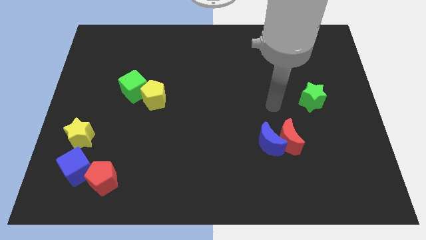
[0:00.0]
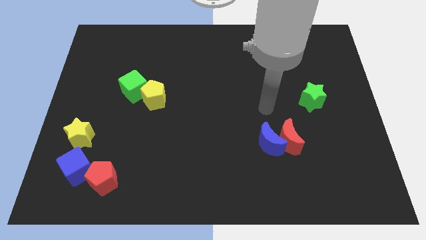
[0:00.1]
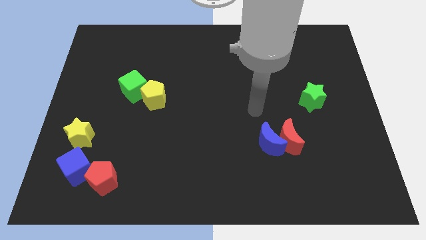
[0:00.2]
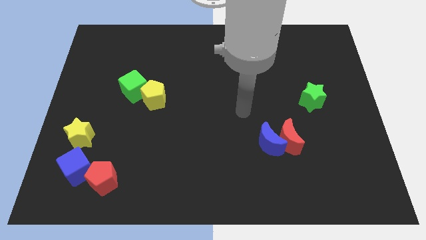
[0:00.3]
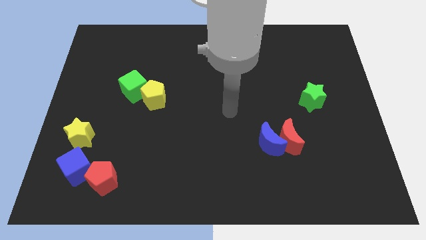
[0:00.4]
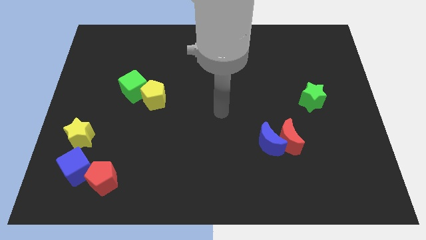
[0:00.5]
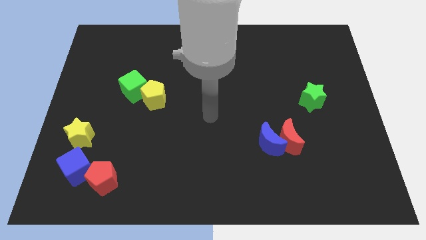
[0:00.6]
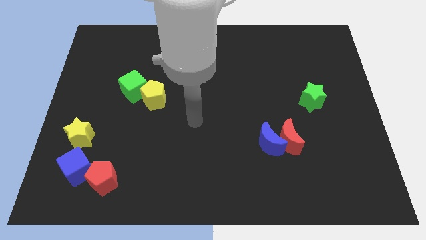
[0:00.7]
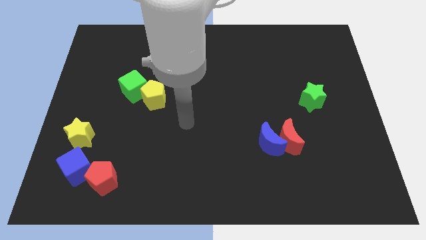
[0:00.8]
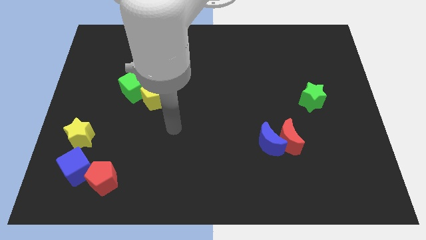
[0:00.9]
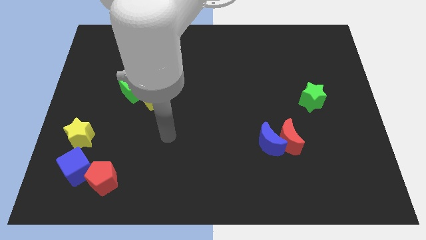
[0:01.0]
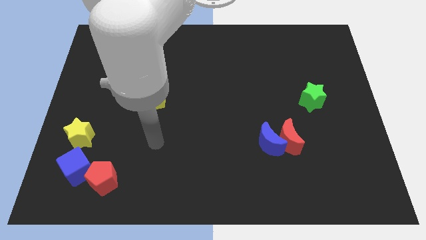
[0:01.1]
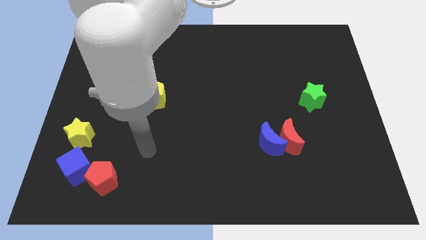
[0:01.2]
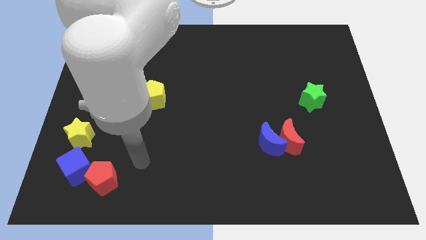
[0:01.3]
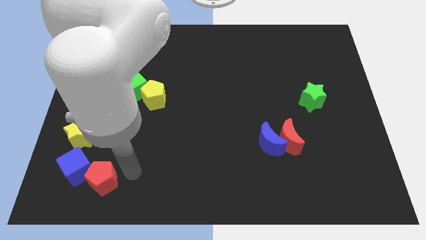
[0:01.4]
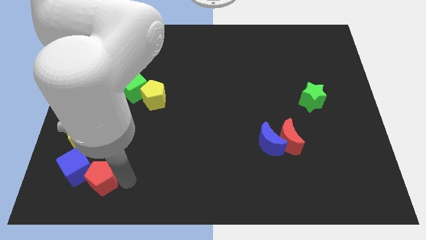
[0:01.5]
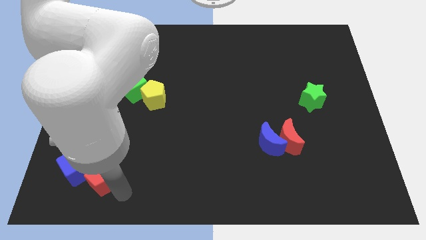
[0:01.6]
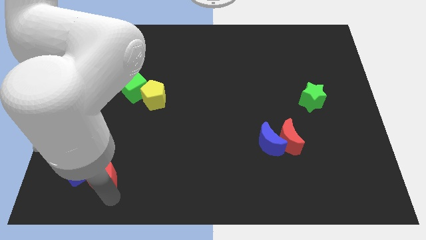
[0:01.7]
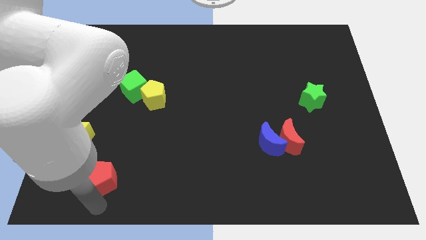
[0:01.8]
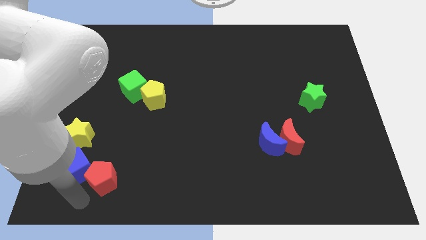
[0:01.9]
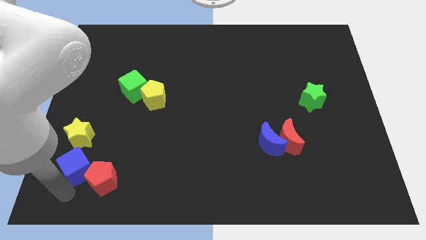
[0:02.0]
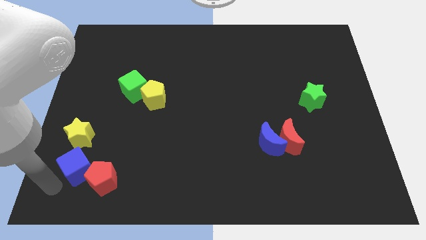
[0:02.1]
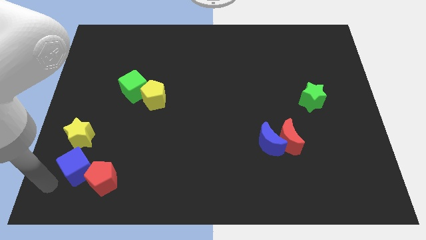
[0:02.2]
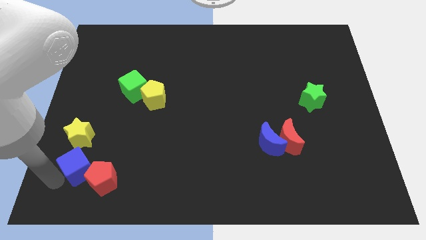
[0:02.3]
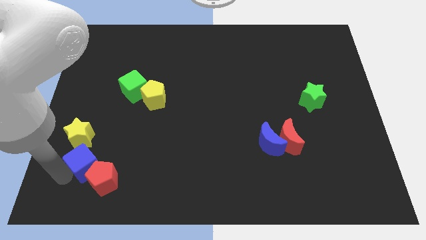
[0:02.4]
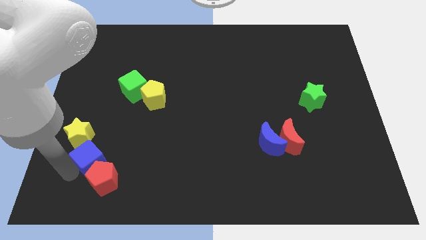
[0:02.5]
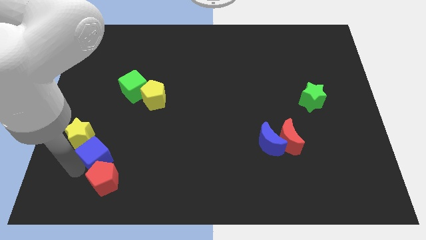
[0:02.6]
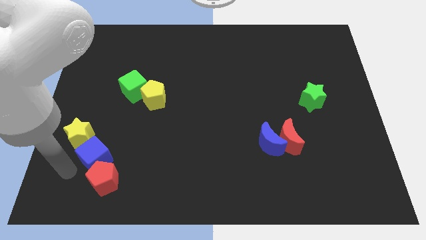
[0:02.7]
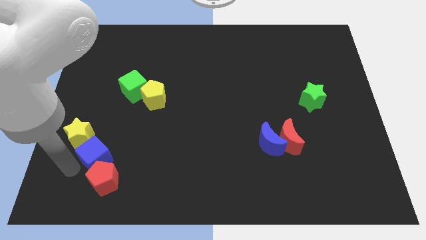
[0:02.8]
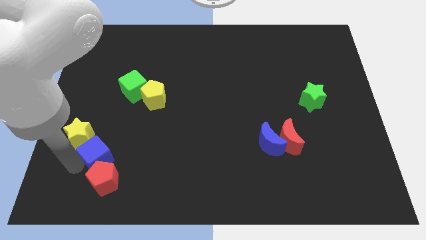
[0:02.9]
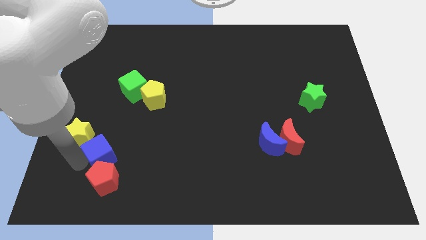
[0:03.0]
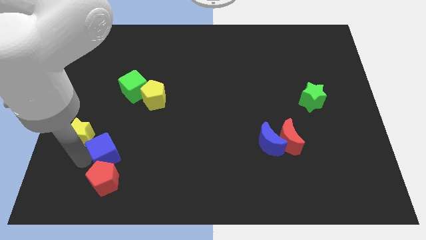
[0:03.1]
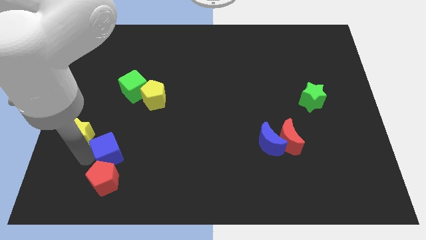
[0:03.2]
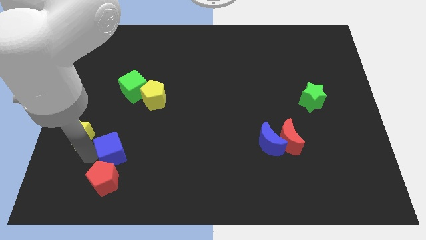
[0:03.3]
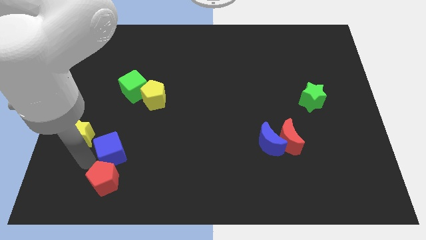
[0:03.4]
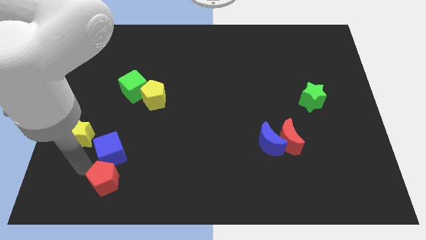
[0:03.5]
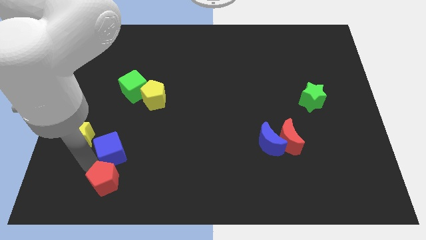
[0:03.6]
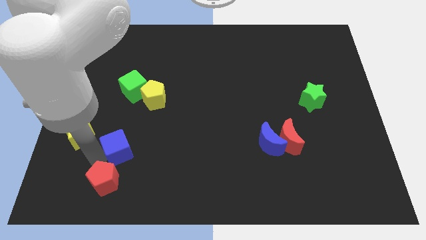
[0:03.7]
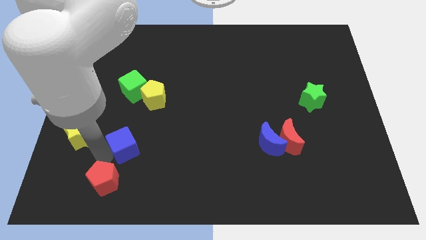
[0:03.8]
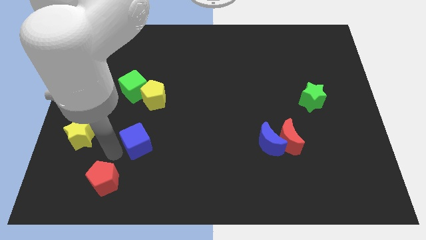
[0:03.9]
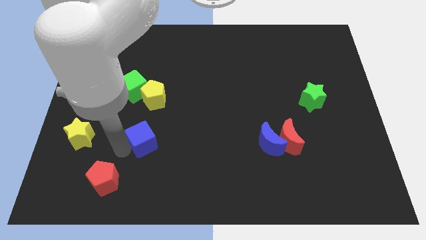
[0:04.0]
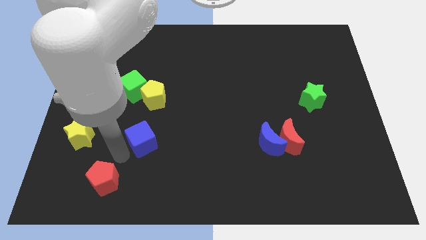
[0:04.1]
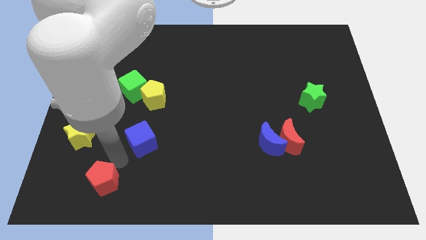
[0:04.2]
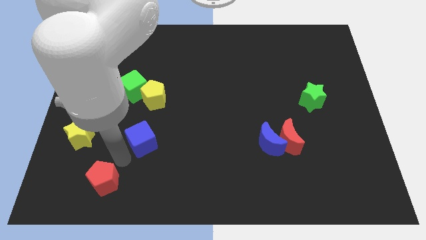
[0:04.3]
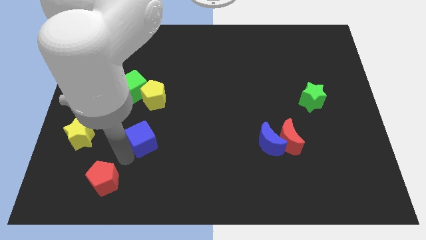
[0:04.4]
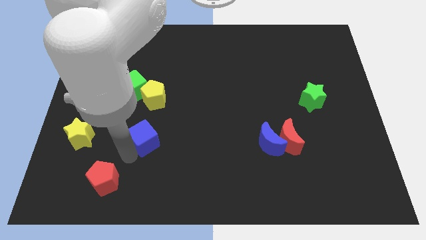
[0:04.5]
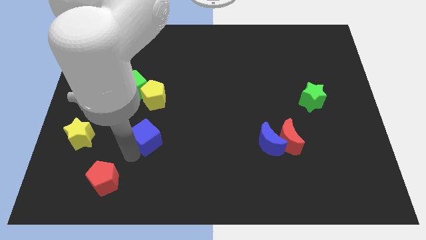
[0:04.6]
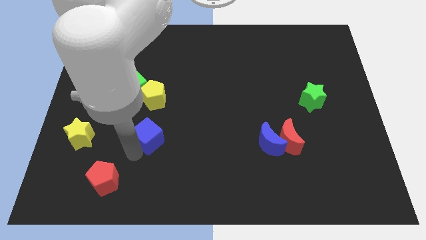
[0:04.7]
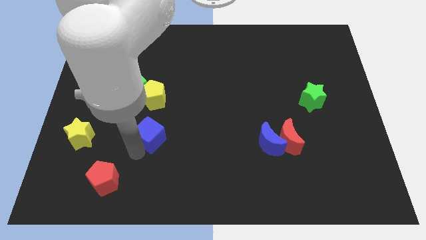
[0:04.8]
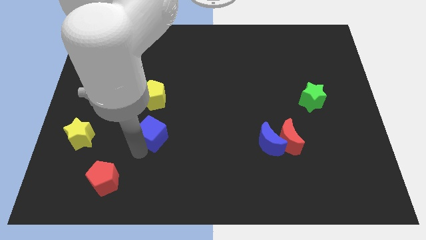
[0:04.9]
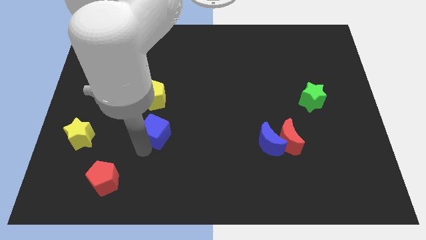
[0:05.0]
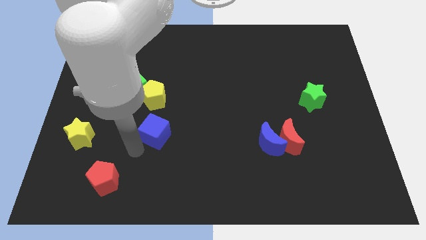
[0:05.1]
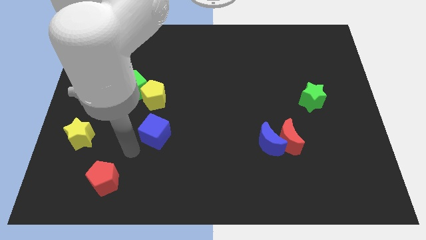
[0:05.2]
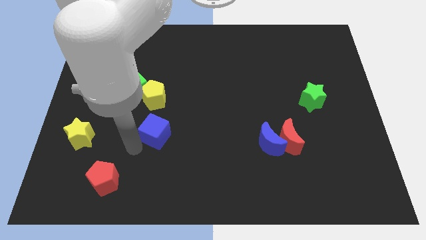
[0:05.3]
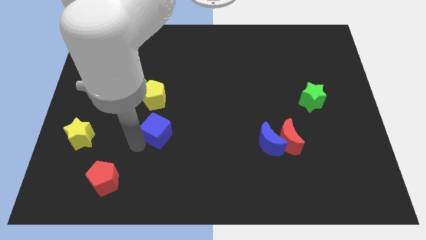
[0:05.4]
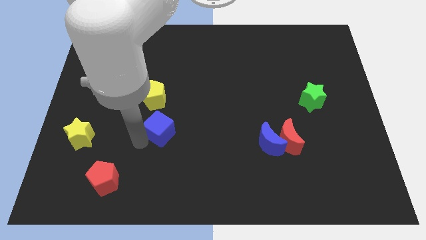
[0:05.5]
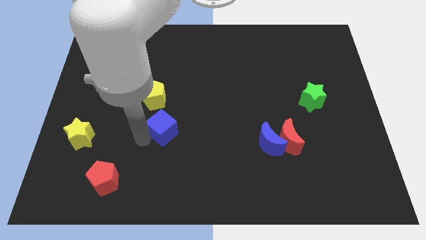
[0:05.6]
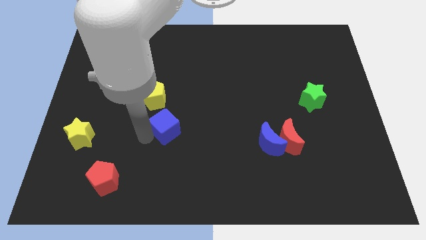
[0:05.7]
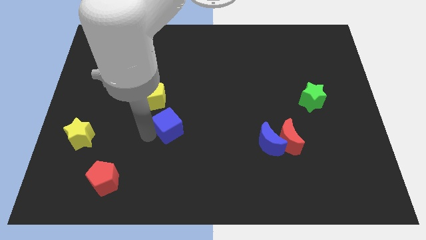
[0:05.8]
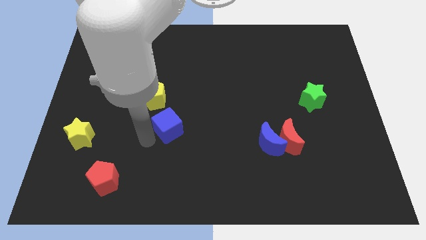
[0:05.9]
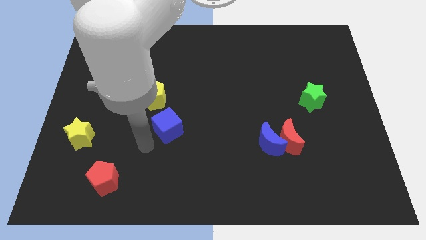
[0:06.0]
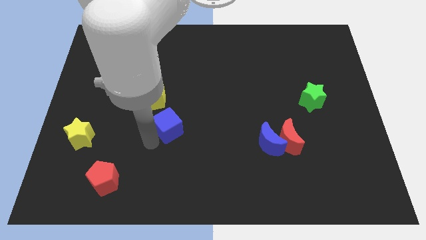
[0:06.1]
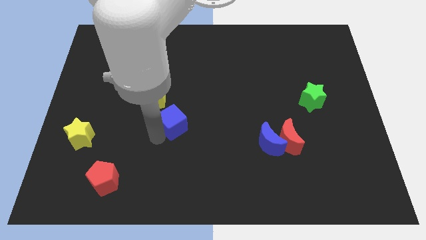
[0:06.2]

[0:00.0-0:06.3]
slide the blue cube to the center of the board

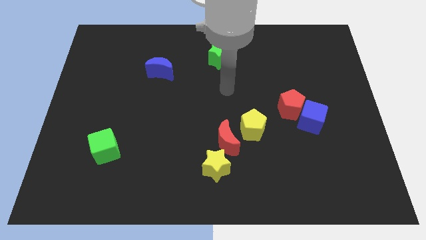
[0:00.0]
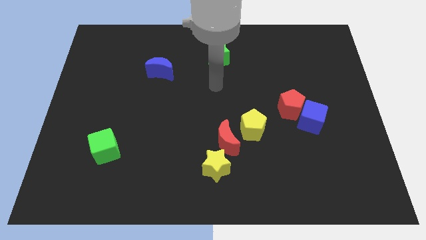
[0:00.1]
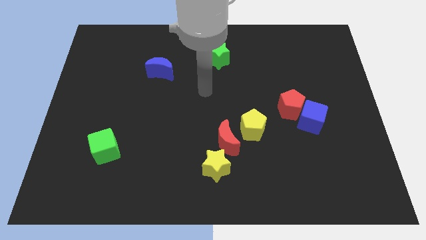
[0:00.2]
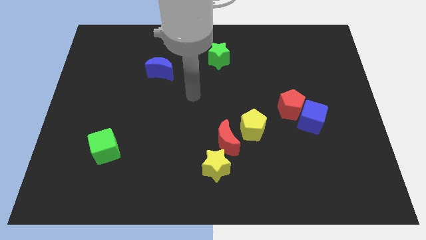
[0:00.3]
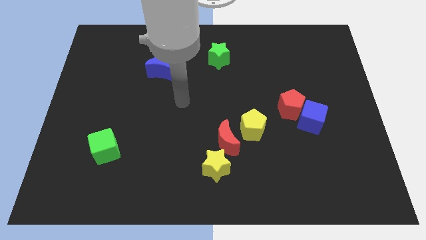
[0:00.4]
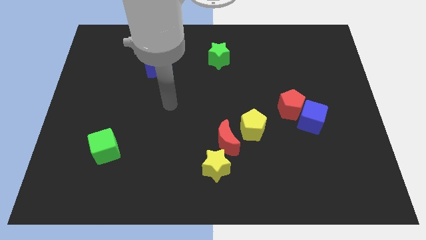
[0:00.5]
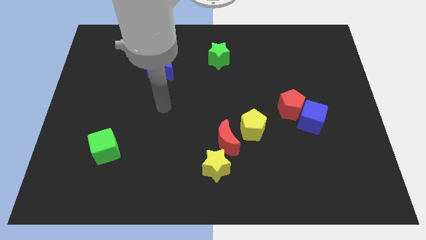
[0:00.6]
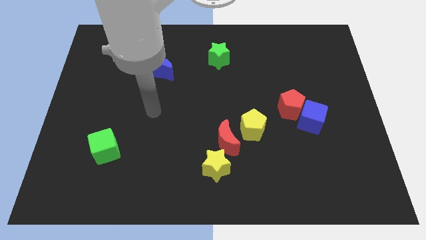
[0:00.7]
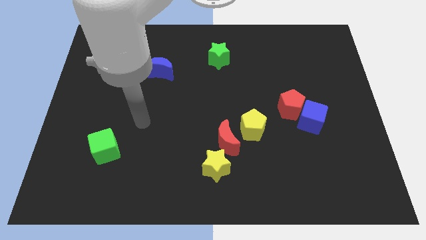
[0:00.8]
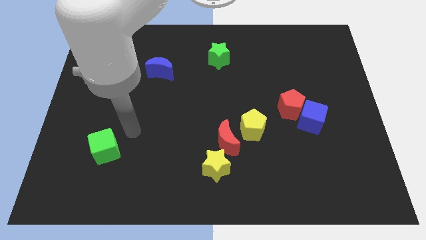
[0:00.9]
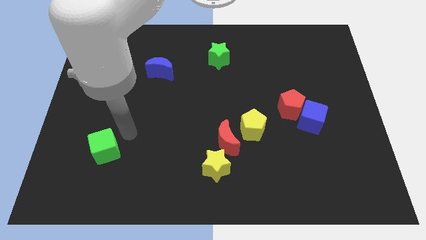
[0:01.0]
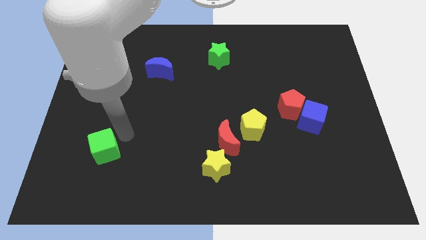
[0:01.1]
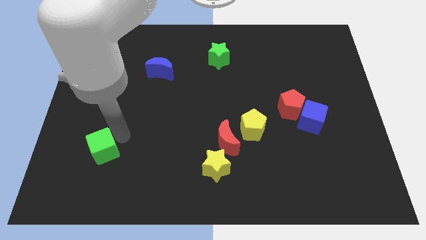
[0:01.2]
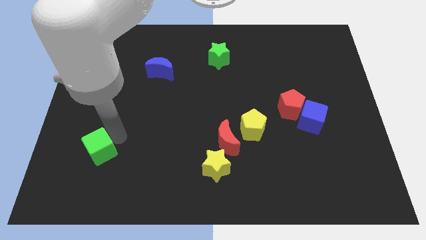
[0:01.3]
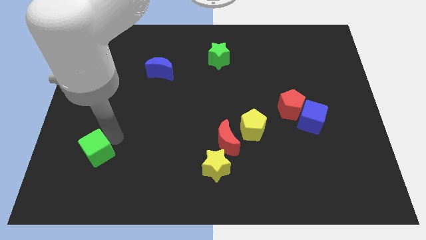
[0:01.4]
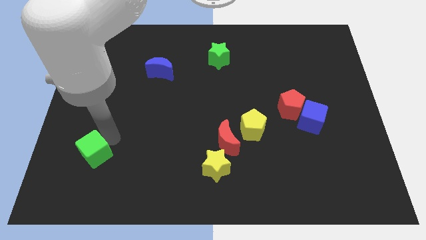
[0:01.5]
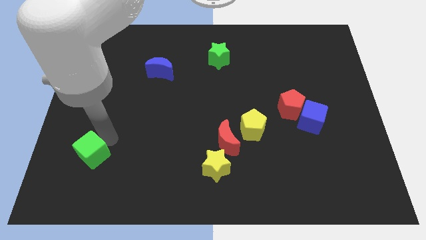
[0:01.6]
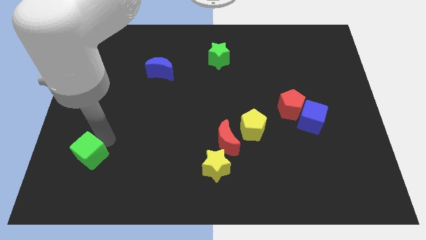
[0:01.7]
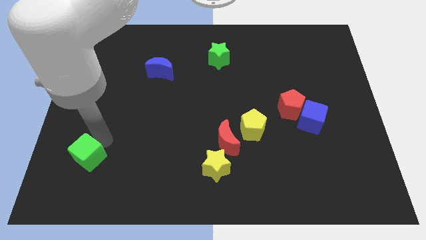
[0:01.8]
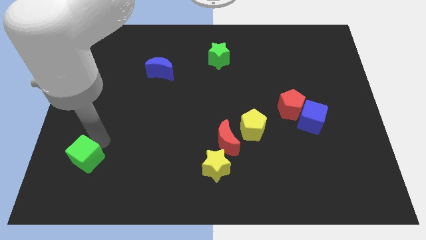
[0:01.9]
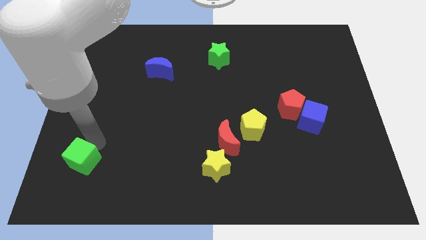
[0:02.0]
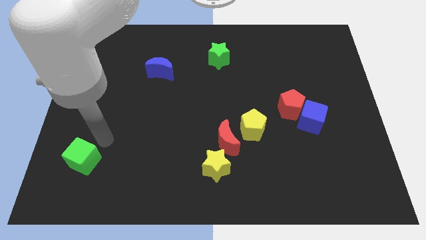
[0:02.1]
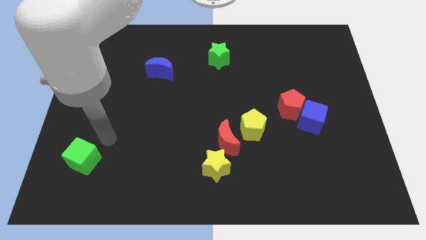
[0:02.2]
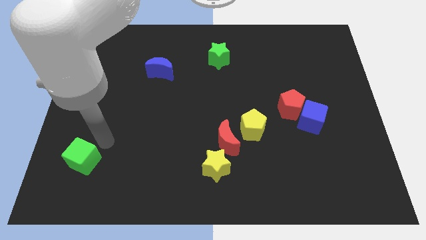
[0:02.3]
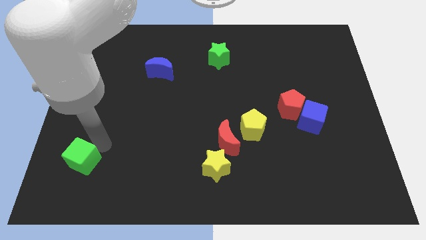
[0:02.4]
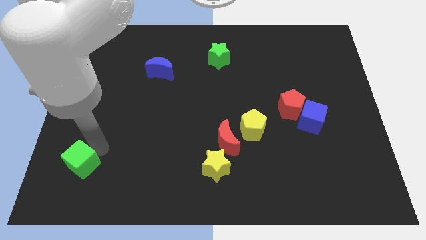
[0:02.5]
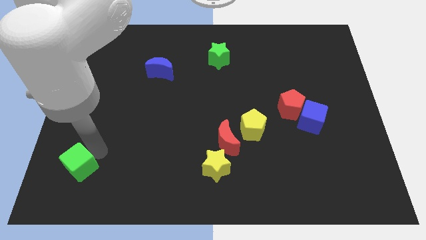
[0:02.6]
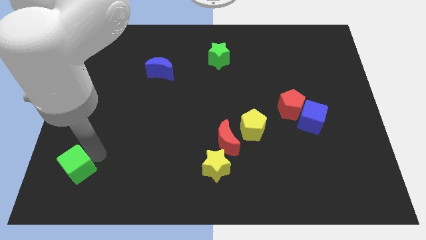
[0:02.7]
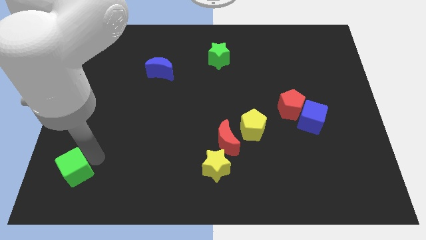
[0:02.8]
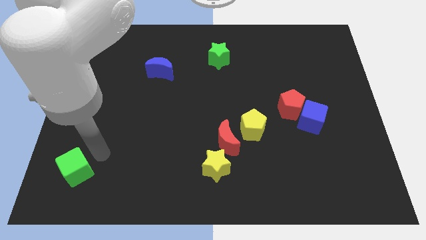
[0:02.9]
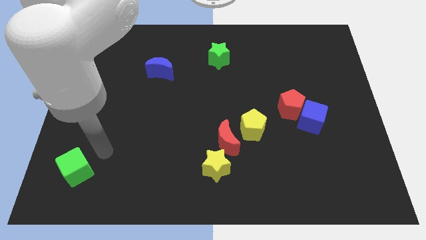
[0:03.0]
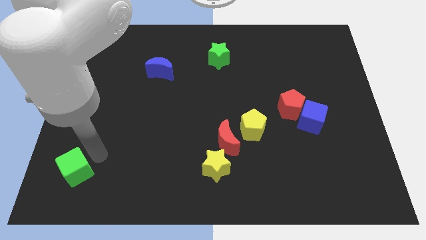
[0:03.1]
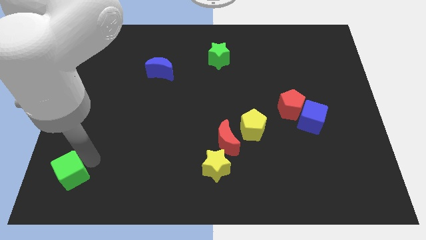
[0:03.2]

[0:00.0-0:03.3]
move the green cube to the lower left corner
